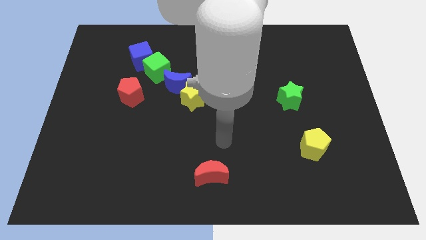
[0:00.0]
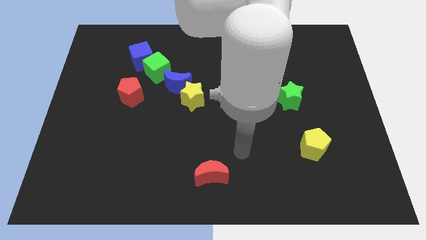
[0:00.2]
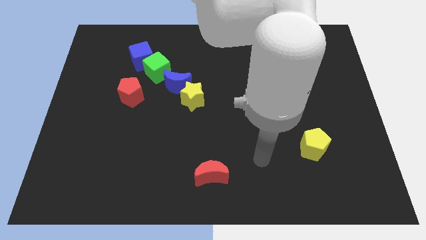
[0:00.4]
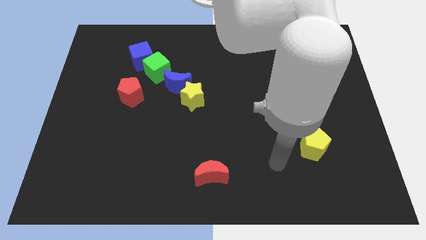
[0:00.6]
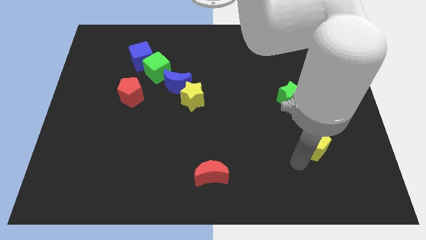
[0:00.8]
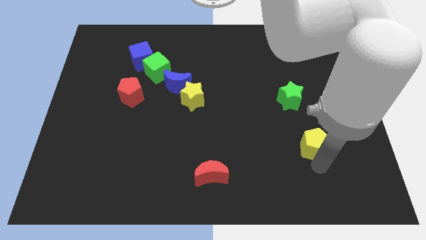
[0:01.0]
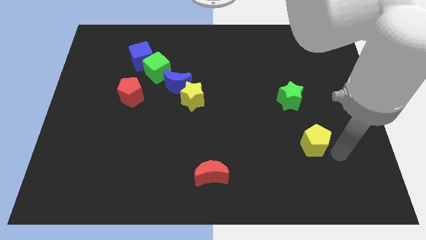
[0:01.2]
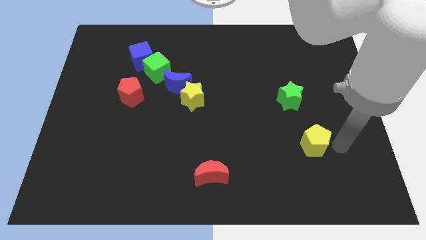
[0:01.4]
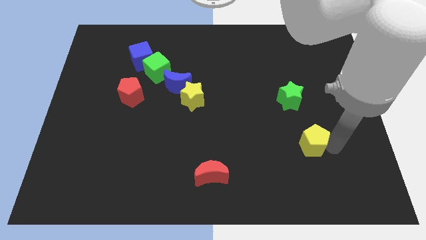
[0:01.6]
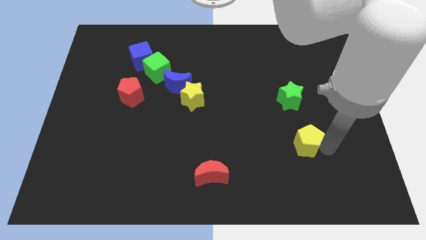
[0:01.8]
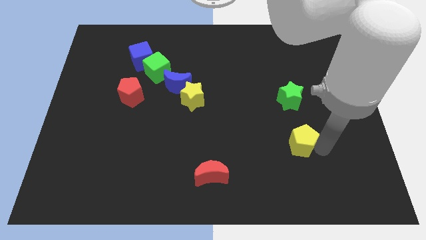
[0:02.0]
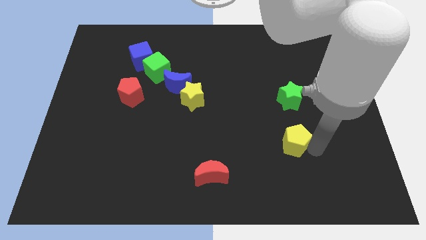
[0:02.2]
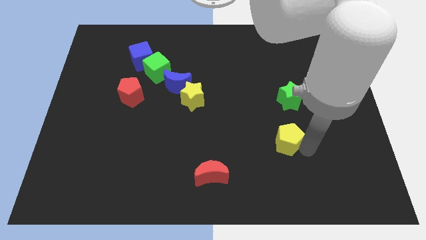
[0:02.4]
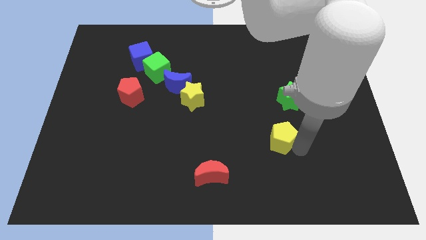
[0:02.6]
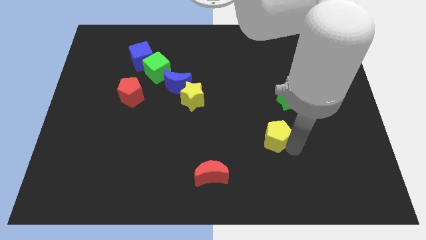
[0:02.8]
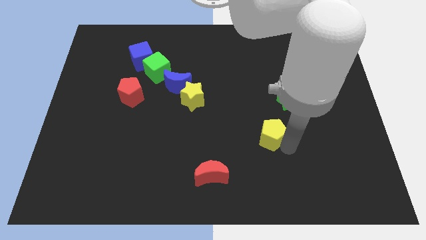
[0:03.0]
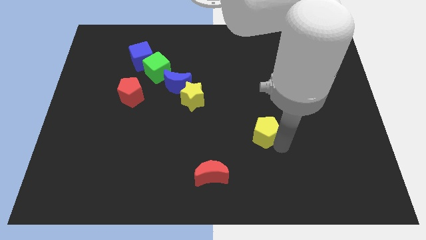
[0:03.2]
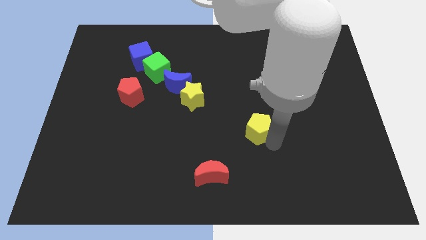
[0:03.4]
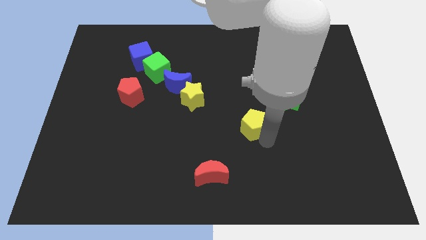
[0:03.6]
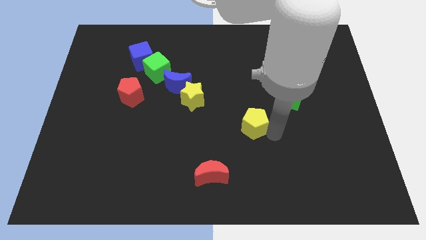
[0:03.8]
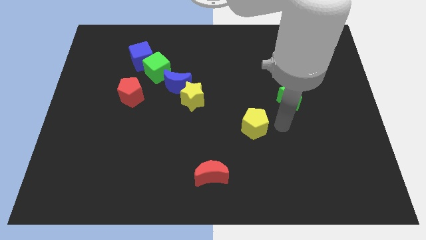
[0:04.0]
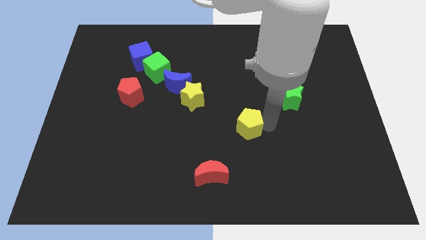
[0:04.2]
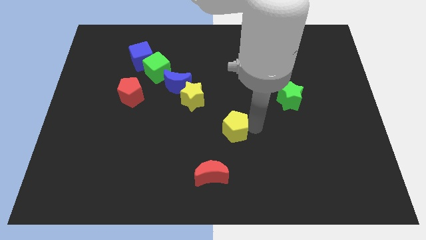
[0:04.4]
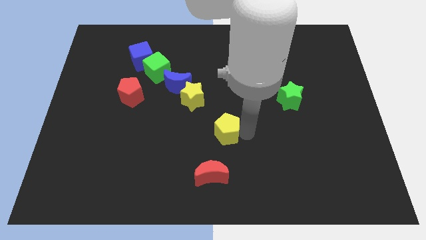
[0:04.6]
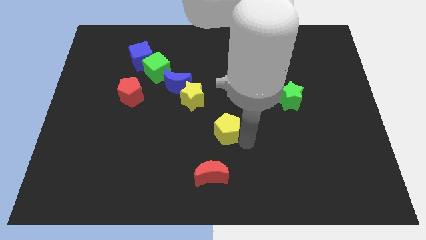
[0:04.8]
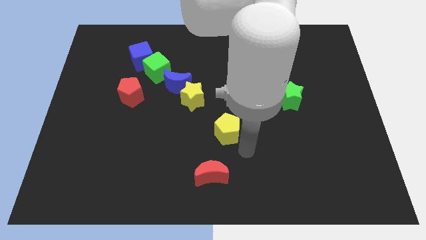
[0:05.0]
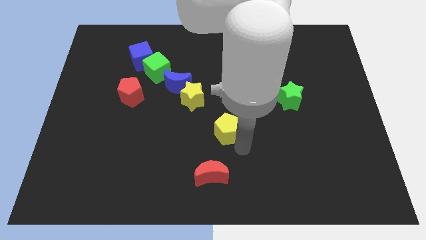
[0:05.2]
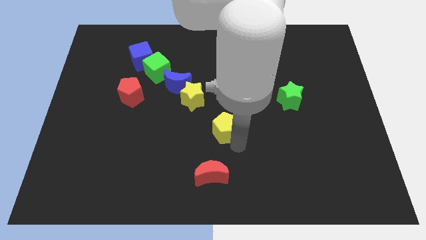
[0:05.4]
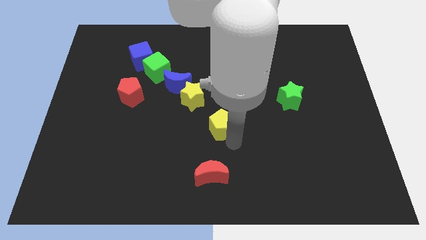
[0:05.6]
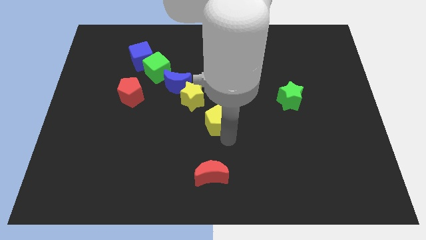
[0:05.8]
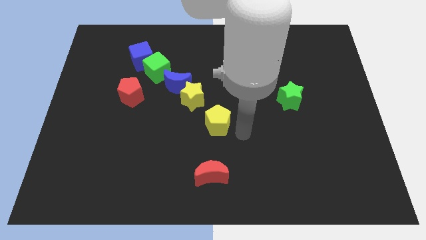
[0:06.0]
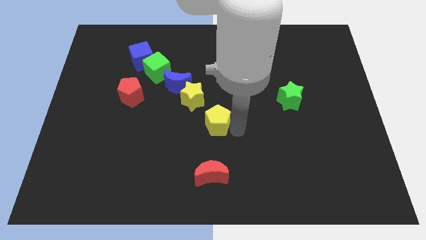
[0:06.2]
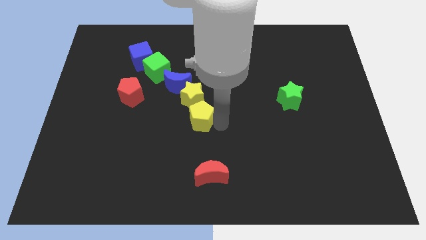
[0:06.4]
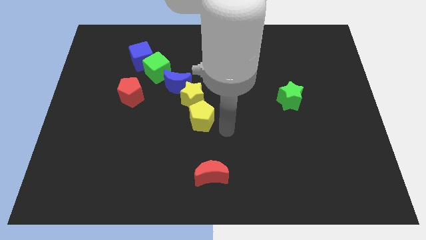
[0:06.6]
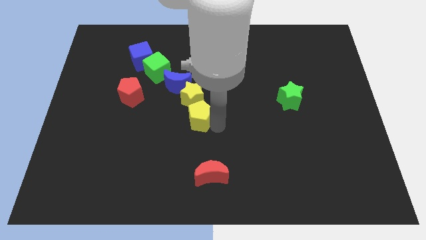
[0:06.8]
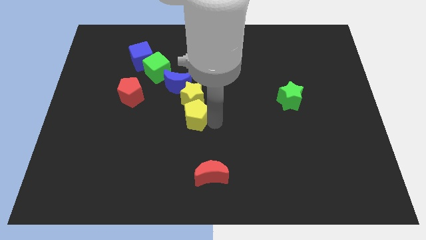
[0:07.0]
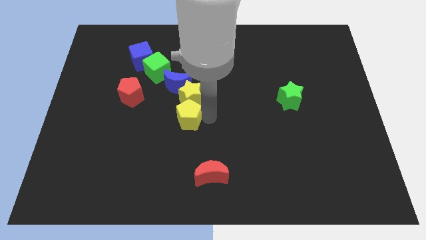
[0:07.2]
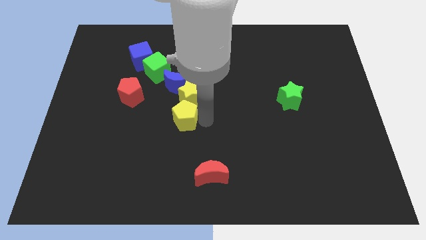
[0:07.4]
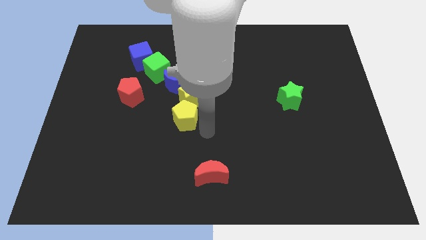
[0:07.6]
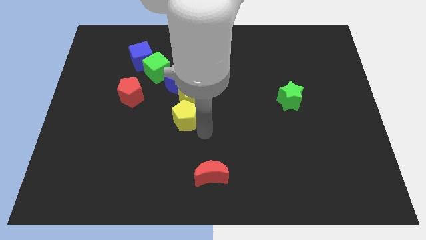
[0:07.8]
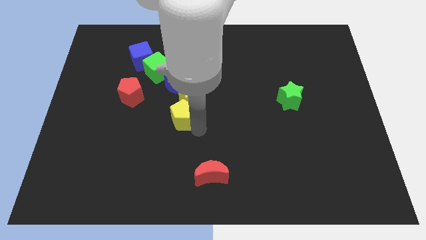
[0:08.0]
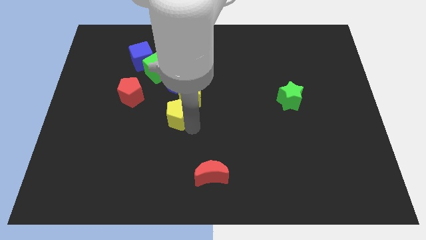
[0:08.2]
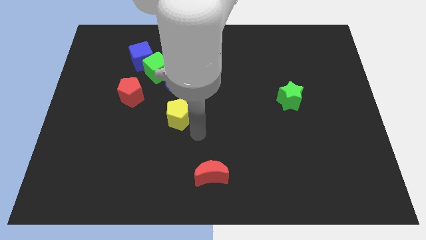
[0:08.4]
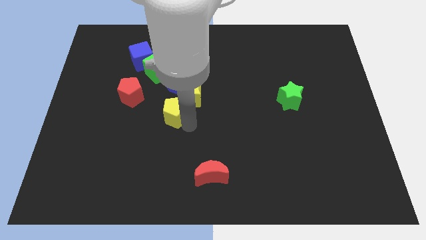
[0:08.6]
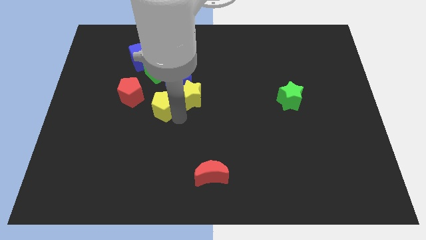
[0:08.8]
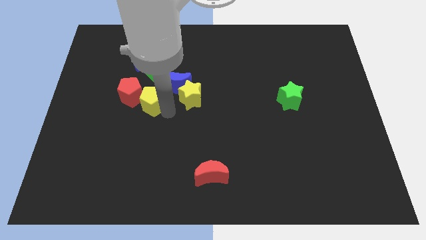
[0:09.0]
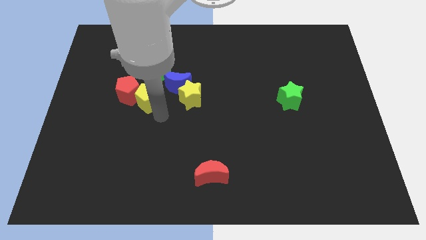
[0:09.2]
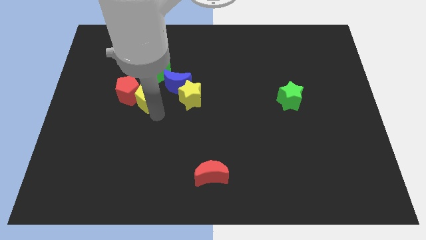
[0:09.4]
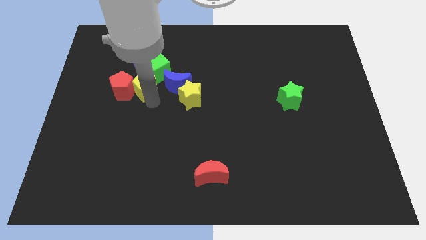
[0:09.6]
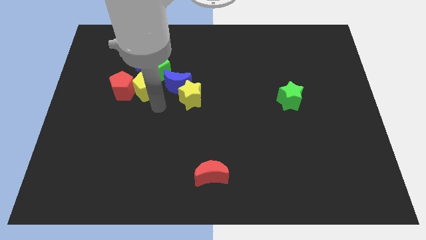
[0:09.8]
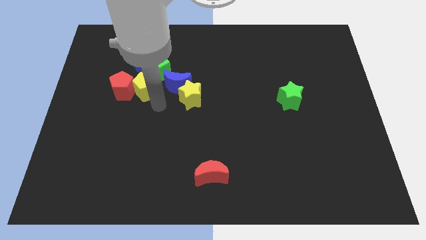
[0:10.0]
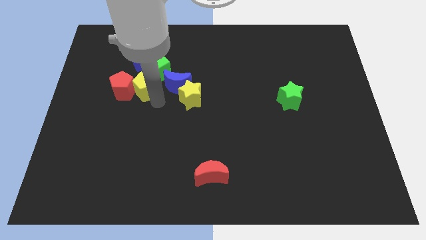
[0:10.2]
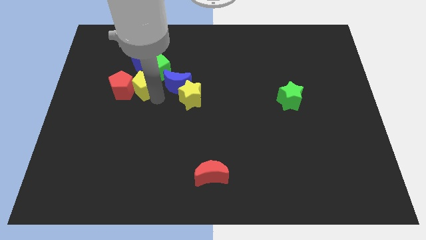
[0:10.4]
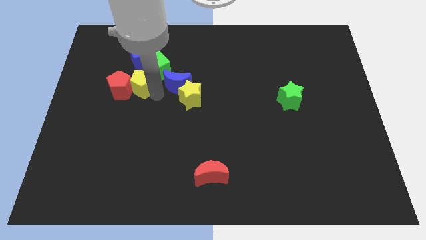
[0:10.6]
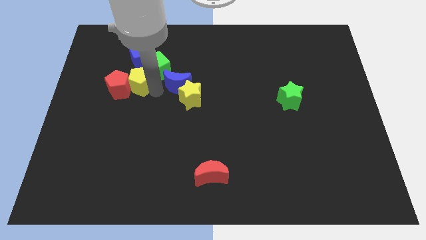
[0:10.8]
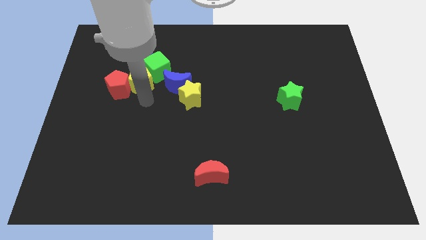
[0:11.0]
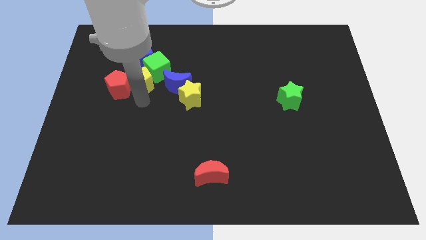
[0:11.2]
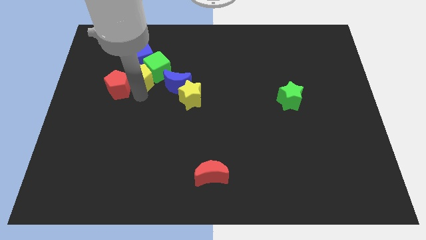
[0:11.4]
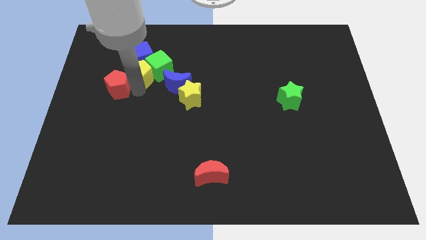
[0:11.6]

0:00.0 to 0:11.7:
slide the yellow pentagon next to the blue cube
